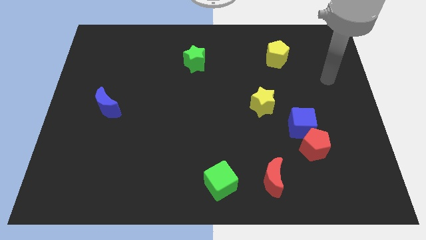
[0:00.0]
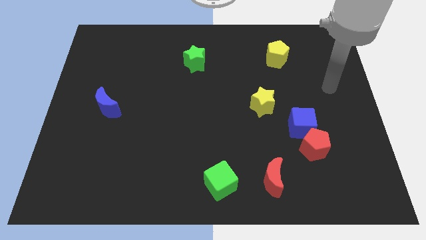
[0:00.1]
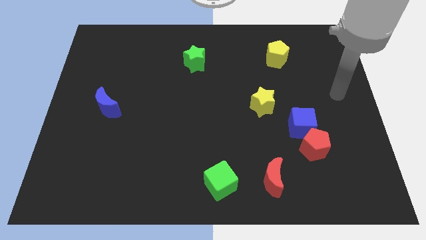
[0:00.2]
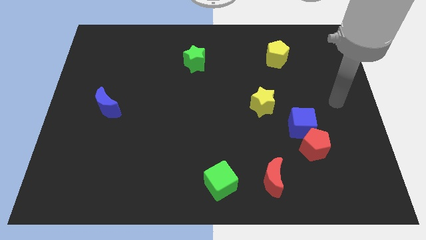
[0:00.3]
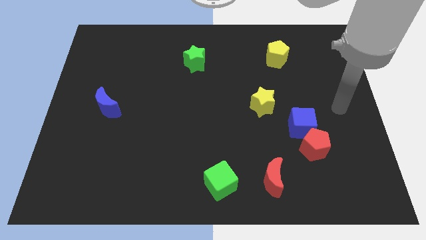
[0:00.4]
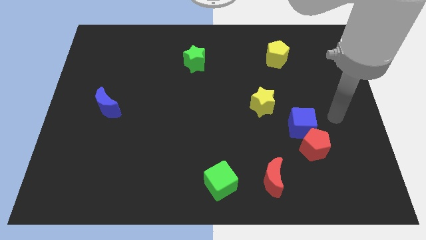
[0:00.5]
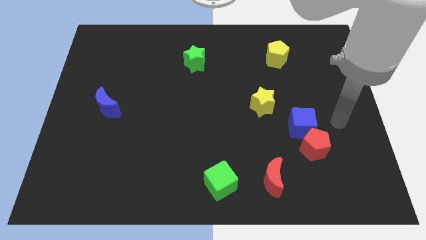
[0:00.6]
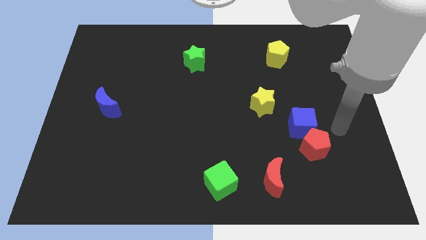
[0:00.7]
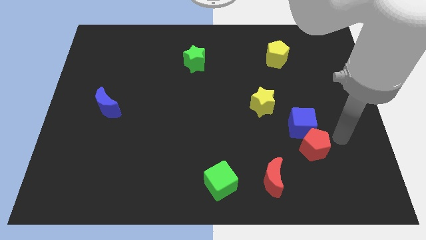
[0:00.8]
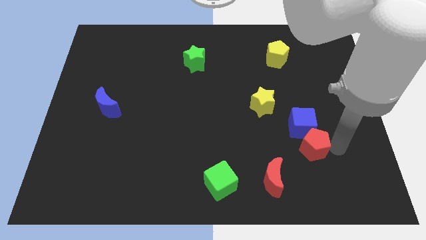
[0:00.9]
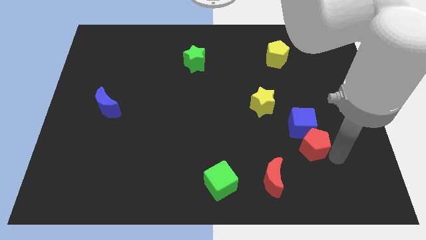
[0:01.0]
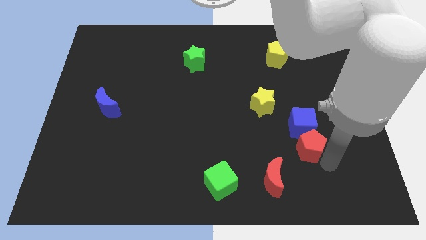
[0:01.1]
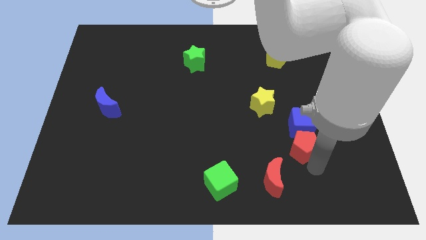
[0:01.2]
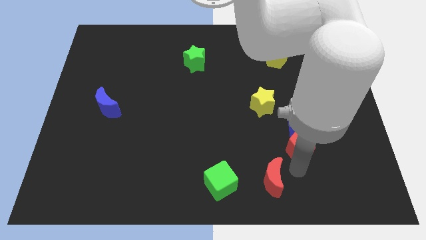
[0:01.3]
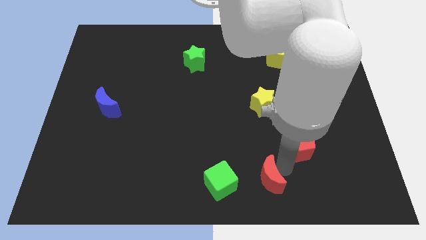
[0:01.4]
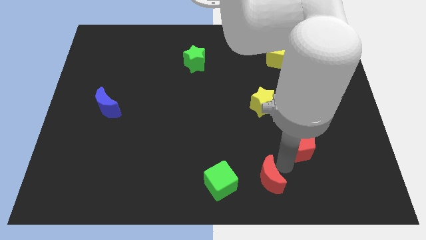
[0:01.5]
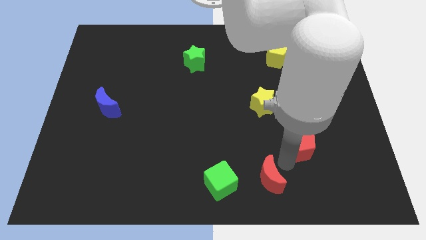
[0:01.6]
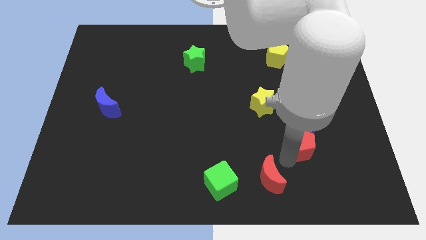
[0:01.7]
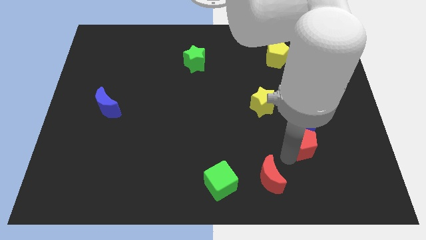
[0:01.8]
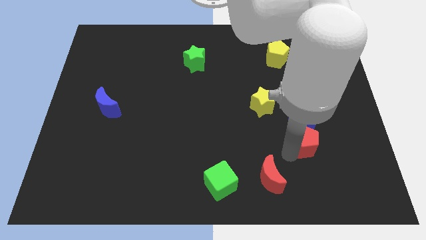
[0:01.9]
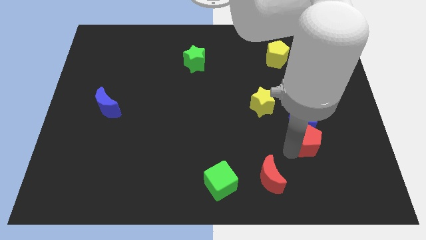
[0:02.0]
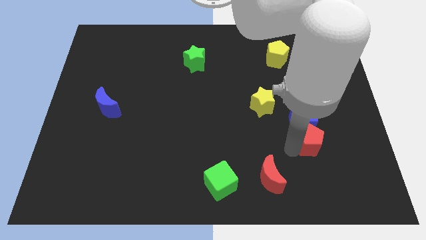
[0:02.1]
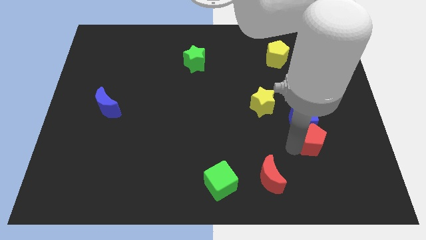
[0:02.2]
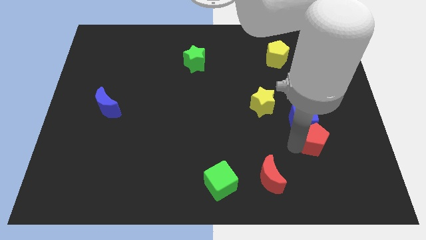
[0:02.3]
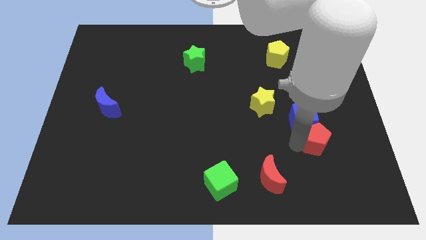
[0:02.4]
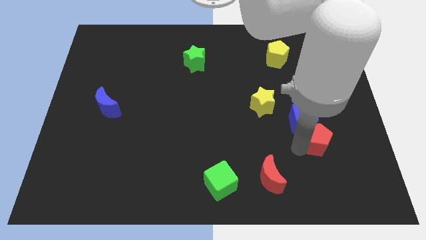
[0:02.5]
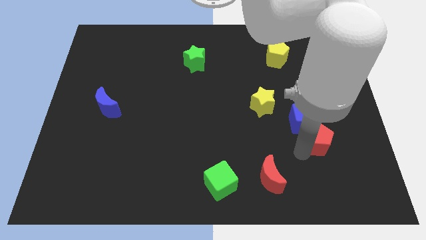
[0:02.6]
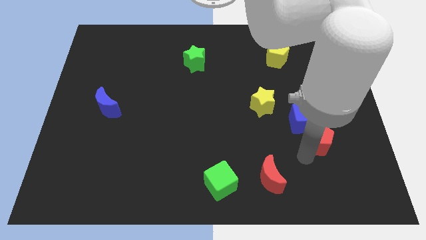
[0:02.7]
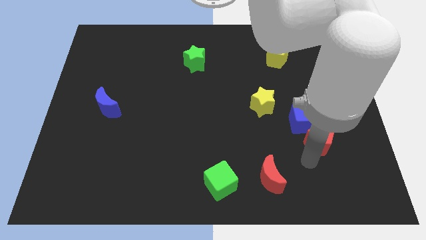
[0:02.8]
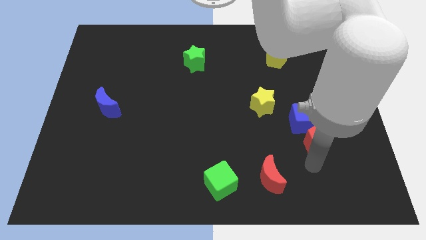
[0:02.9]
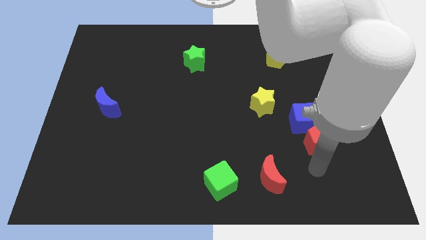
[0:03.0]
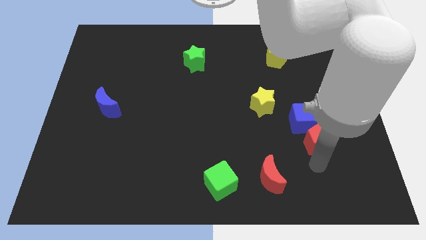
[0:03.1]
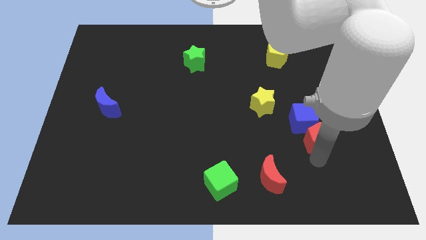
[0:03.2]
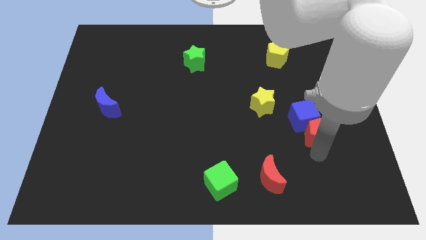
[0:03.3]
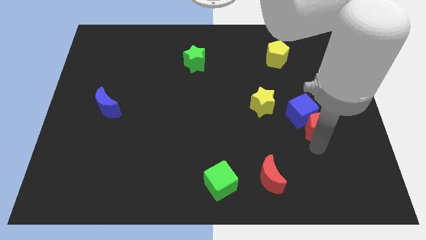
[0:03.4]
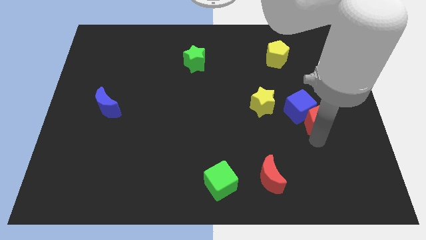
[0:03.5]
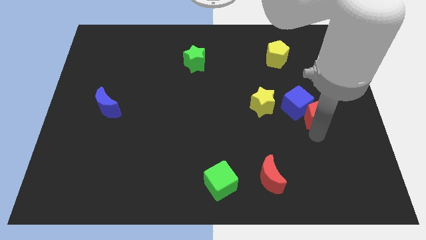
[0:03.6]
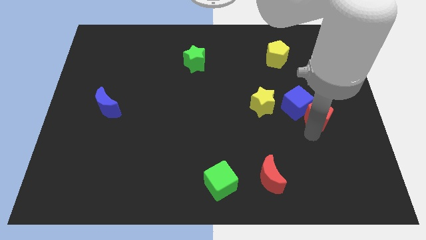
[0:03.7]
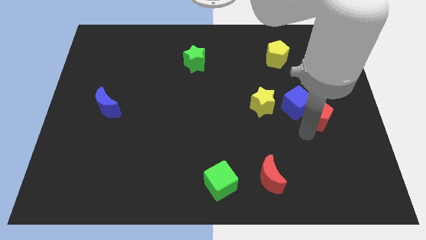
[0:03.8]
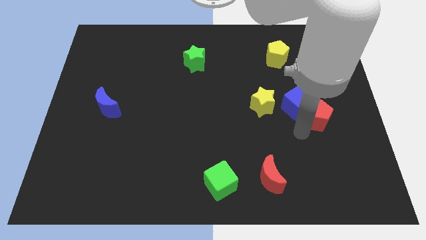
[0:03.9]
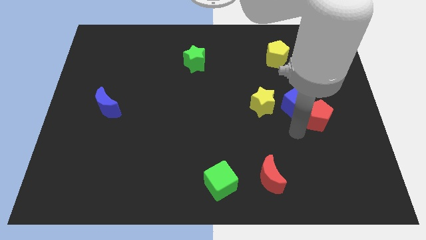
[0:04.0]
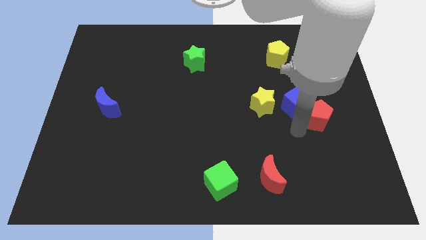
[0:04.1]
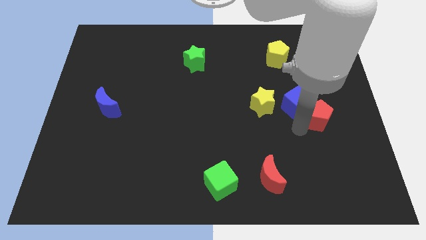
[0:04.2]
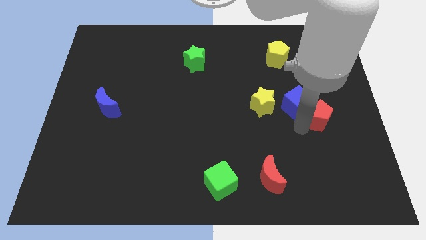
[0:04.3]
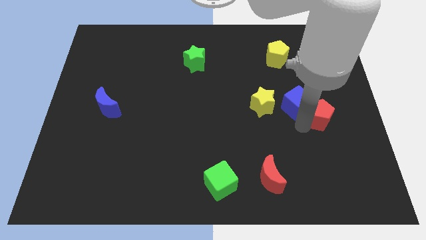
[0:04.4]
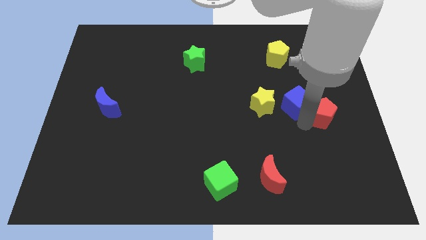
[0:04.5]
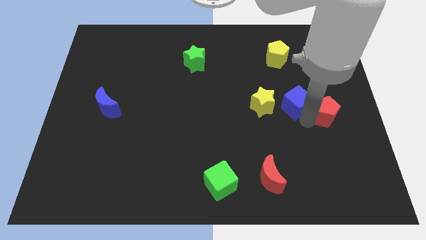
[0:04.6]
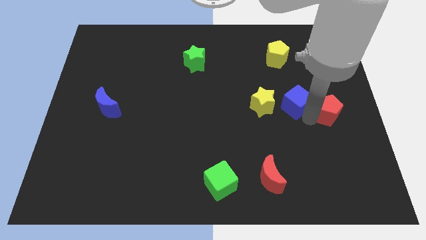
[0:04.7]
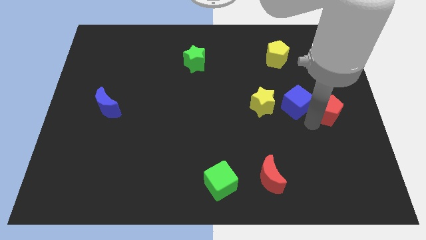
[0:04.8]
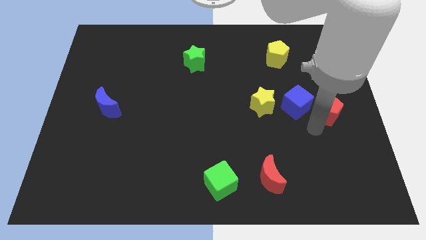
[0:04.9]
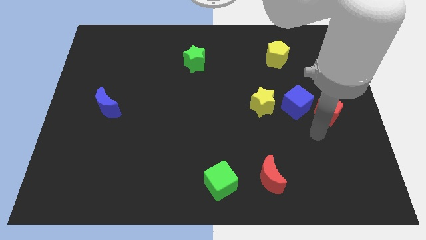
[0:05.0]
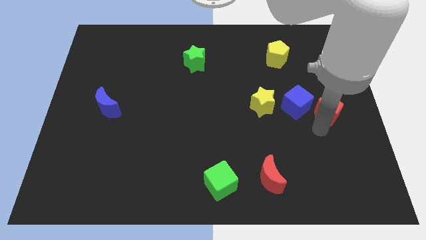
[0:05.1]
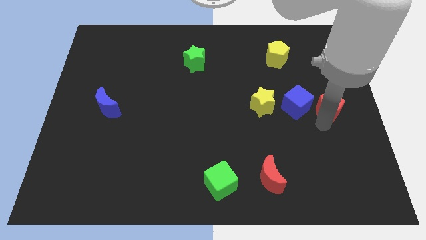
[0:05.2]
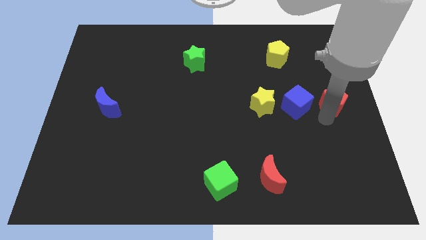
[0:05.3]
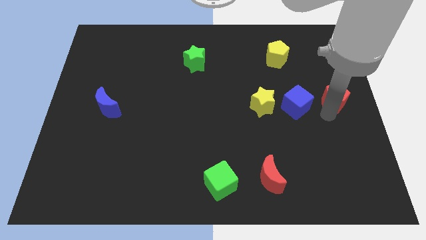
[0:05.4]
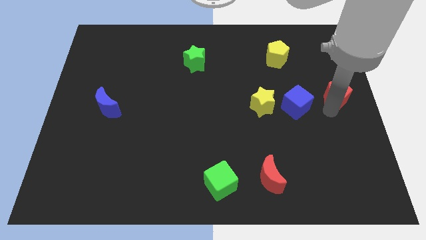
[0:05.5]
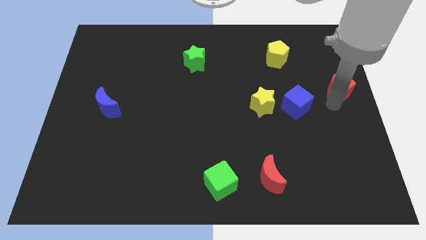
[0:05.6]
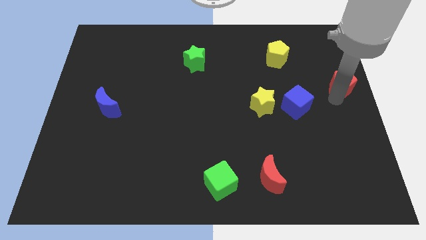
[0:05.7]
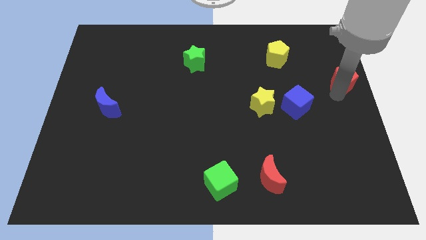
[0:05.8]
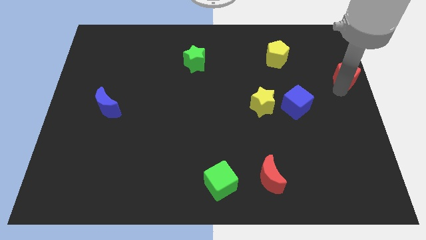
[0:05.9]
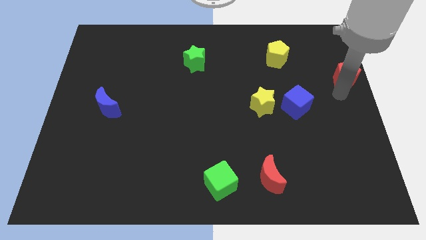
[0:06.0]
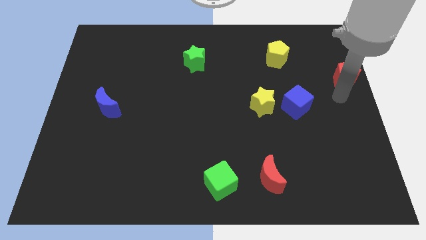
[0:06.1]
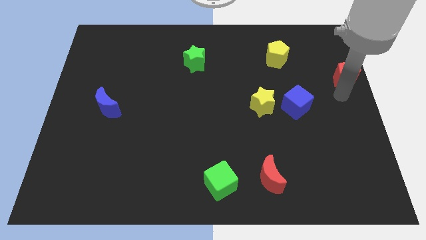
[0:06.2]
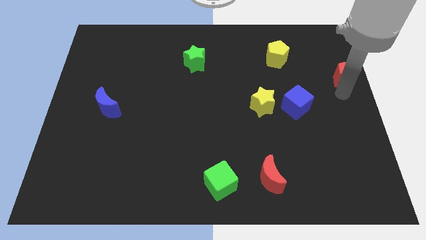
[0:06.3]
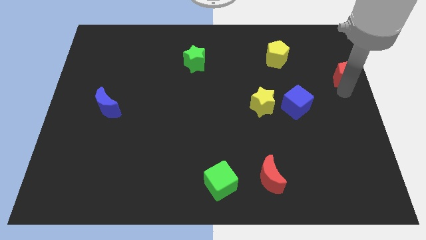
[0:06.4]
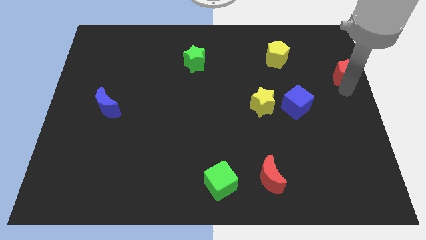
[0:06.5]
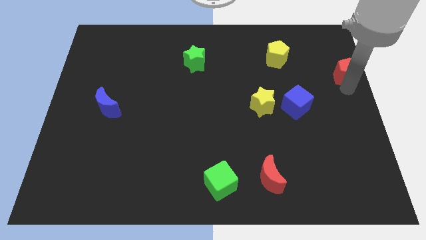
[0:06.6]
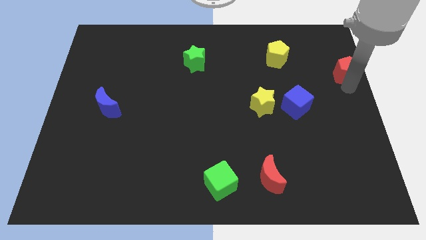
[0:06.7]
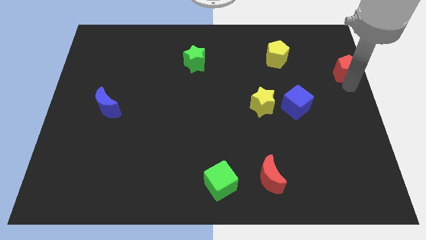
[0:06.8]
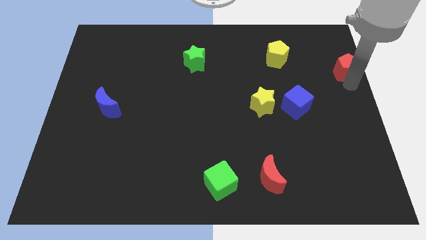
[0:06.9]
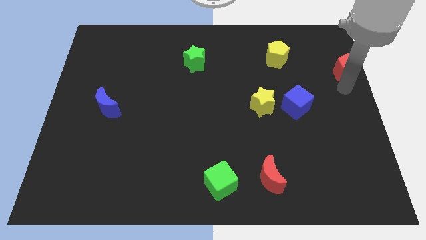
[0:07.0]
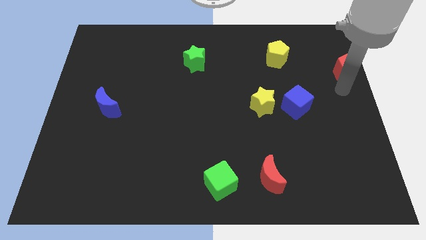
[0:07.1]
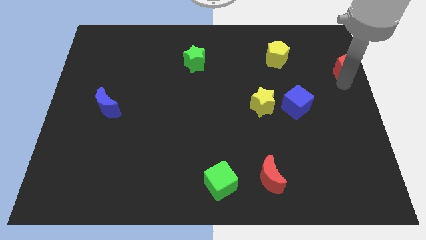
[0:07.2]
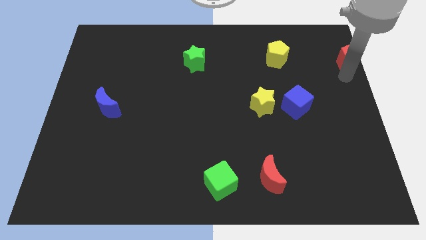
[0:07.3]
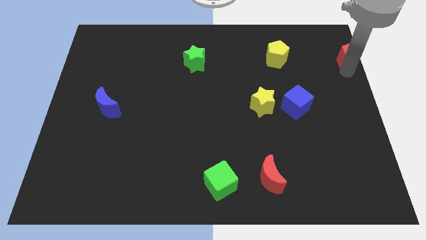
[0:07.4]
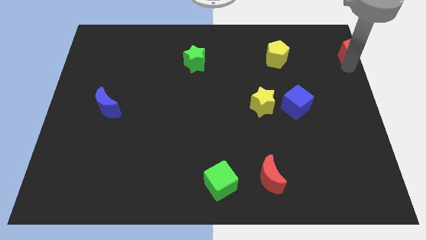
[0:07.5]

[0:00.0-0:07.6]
put the red pentagon to the top right corner
